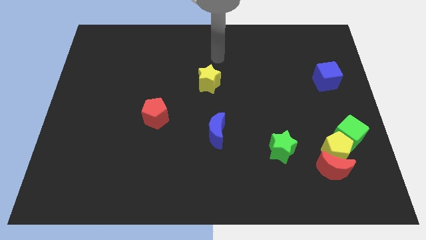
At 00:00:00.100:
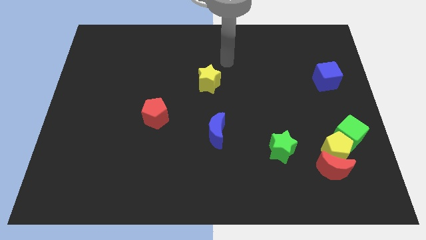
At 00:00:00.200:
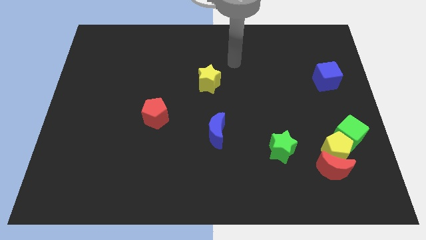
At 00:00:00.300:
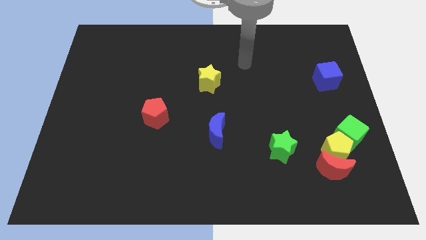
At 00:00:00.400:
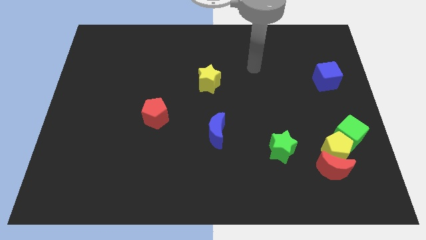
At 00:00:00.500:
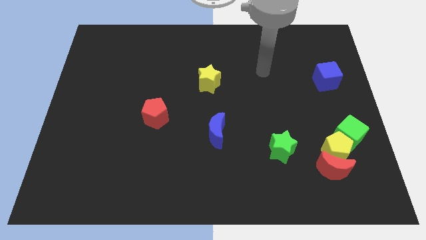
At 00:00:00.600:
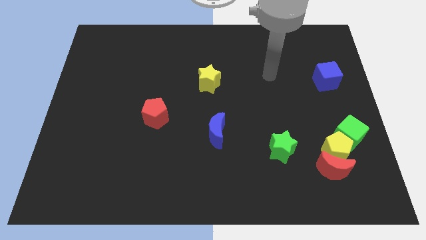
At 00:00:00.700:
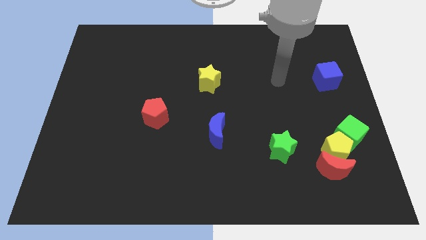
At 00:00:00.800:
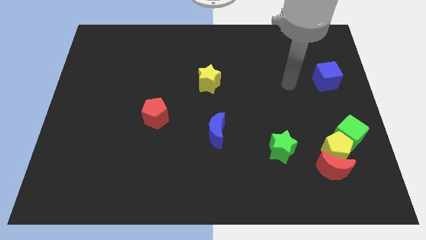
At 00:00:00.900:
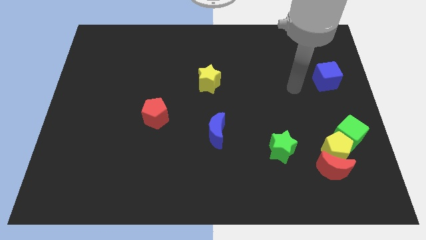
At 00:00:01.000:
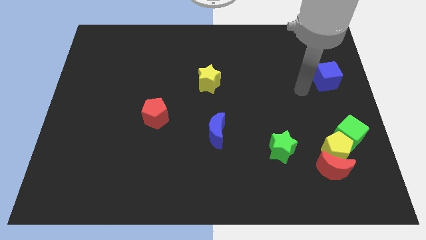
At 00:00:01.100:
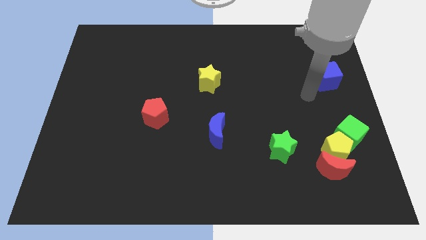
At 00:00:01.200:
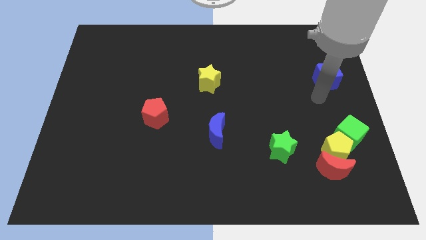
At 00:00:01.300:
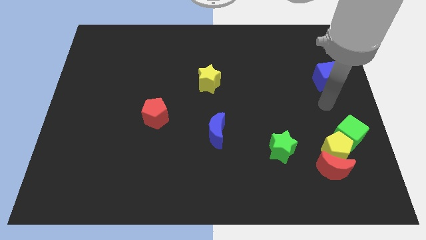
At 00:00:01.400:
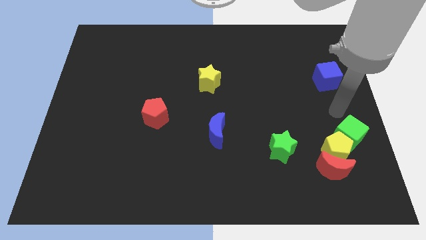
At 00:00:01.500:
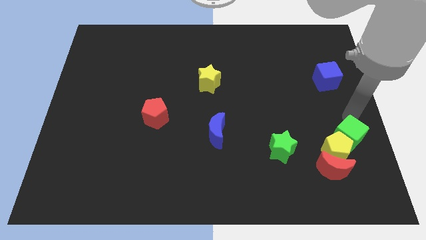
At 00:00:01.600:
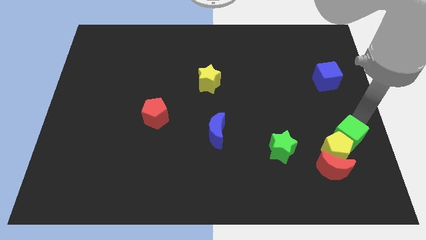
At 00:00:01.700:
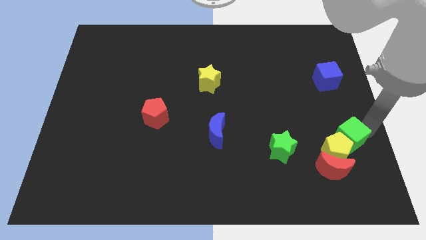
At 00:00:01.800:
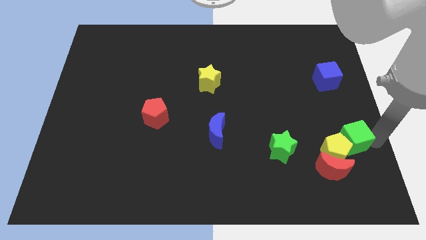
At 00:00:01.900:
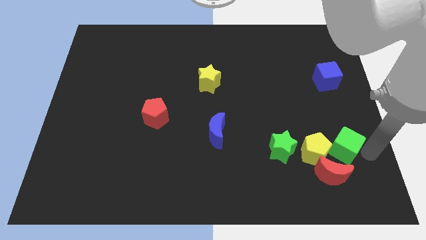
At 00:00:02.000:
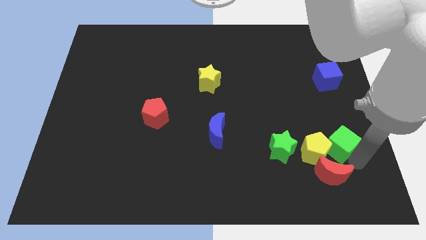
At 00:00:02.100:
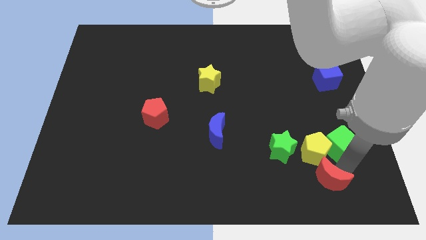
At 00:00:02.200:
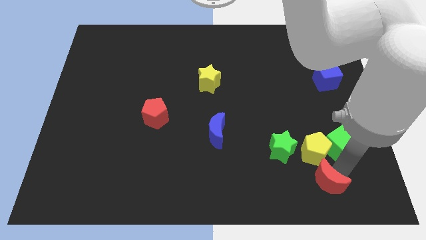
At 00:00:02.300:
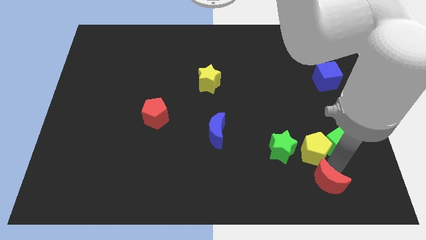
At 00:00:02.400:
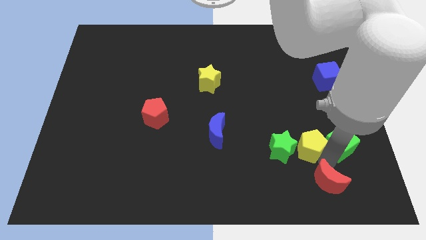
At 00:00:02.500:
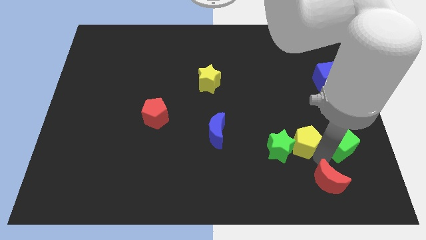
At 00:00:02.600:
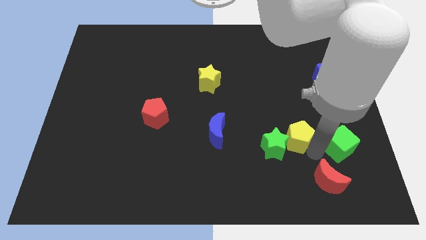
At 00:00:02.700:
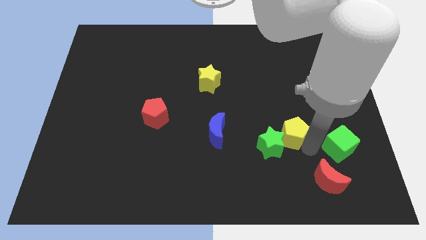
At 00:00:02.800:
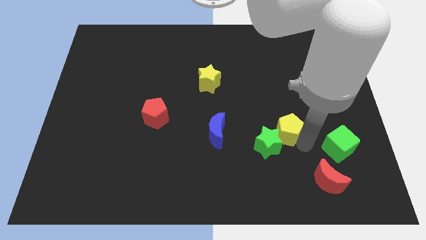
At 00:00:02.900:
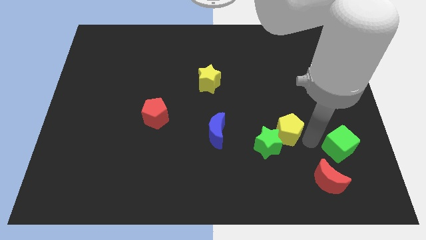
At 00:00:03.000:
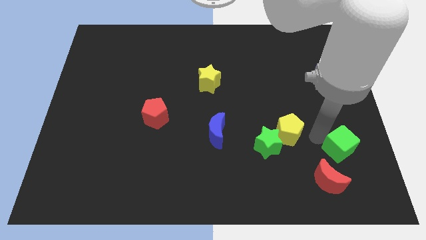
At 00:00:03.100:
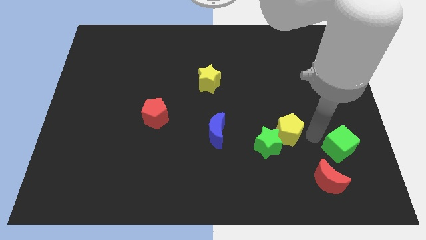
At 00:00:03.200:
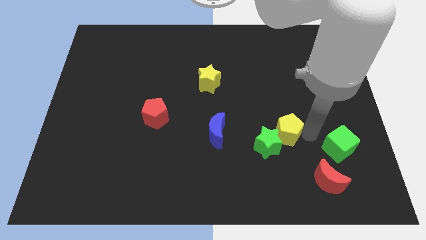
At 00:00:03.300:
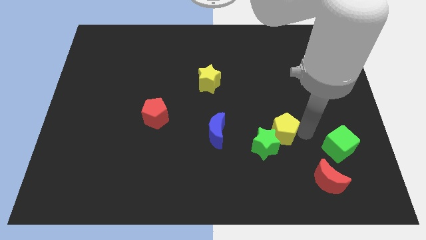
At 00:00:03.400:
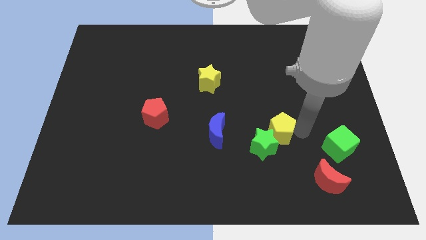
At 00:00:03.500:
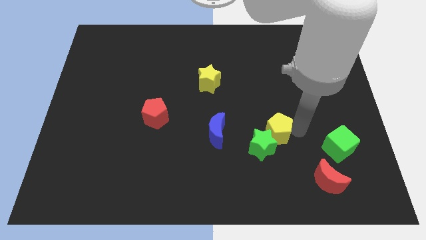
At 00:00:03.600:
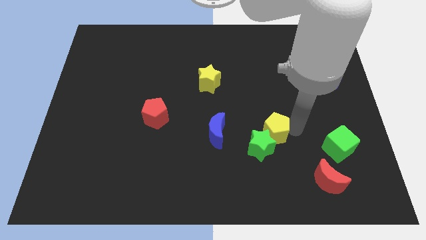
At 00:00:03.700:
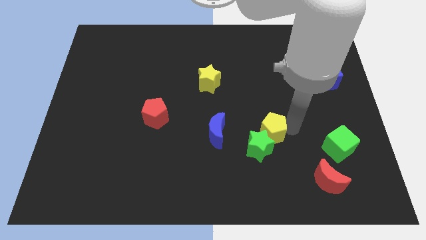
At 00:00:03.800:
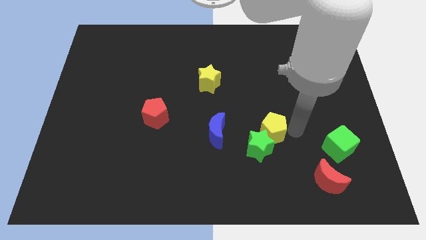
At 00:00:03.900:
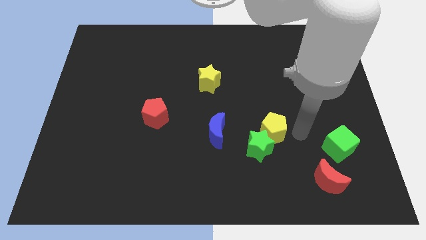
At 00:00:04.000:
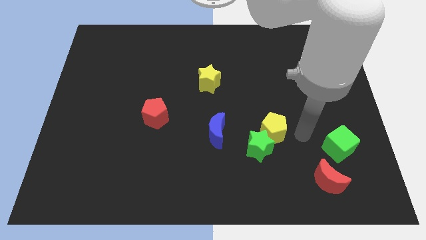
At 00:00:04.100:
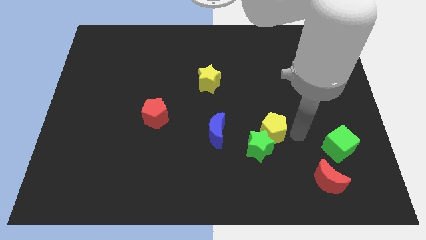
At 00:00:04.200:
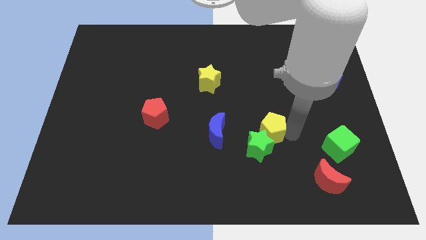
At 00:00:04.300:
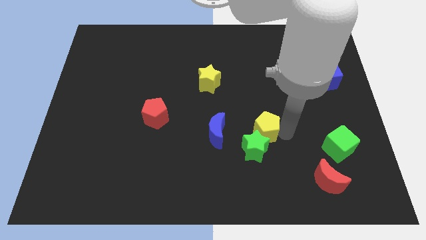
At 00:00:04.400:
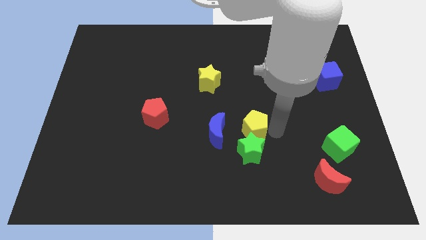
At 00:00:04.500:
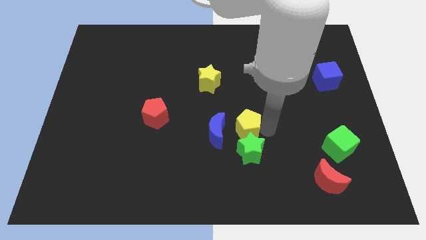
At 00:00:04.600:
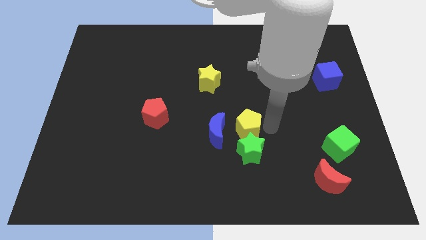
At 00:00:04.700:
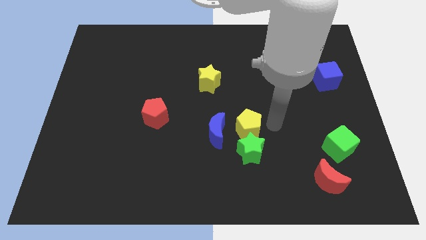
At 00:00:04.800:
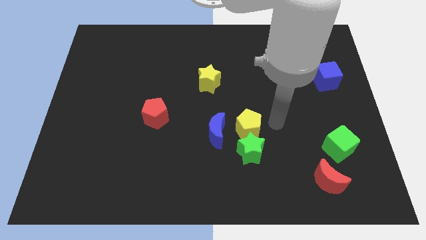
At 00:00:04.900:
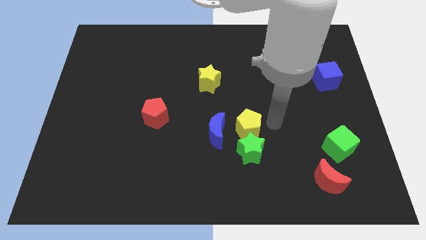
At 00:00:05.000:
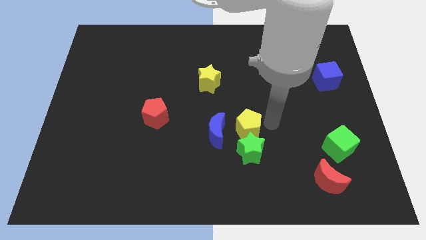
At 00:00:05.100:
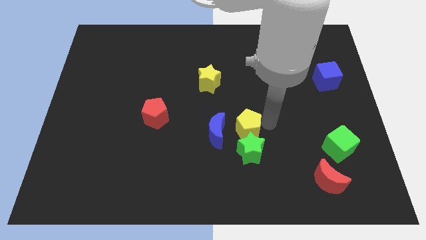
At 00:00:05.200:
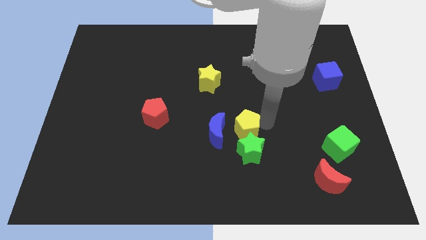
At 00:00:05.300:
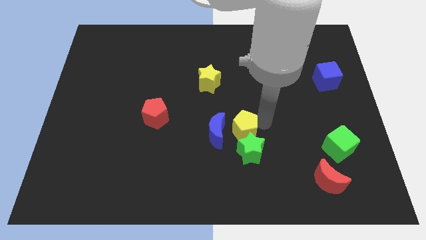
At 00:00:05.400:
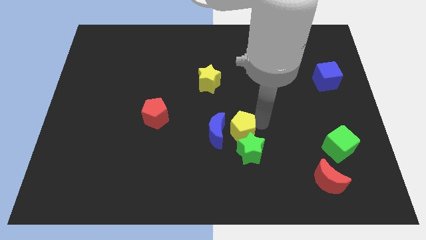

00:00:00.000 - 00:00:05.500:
push the yellow pentagon towards the blue moon

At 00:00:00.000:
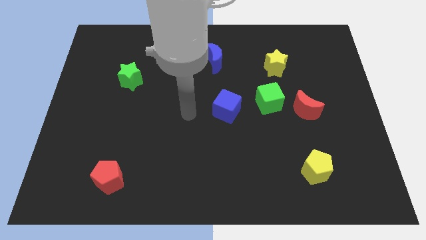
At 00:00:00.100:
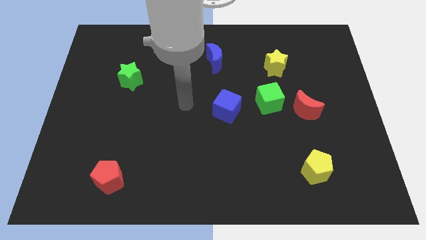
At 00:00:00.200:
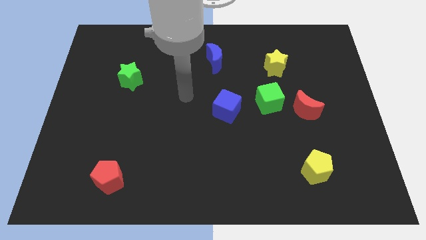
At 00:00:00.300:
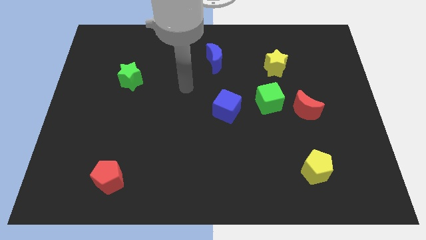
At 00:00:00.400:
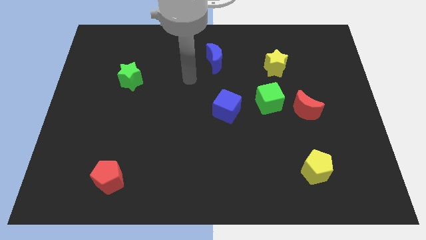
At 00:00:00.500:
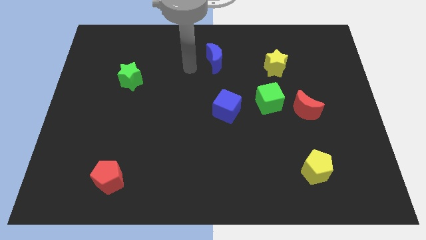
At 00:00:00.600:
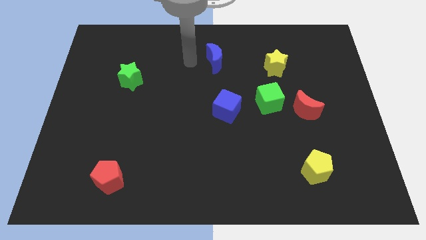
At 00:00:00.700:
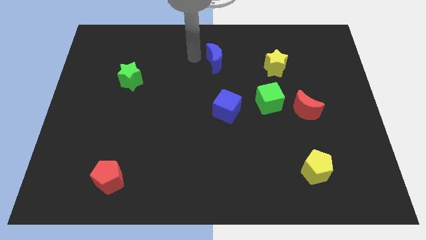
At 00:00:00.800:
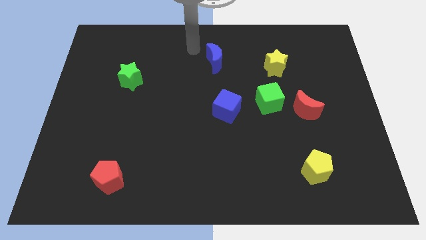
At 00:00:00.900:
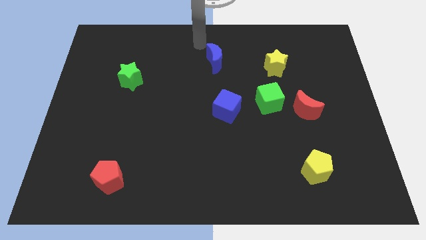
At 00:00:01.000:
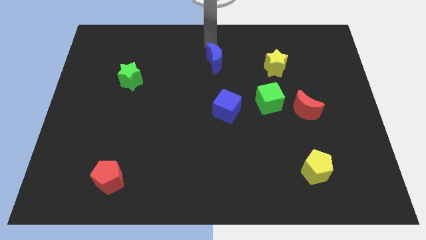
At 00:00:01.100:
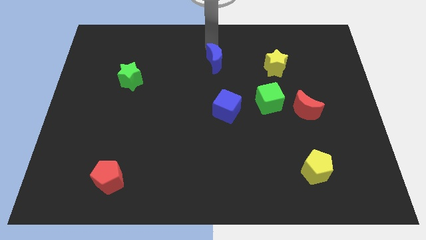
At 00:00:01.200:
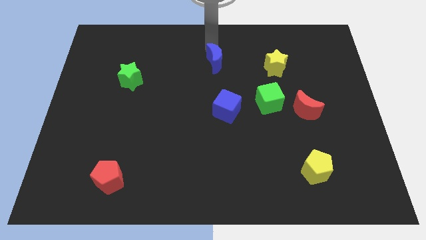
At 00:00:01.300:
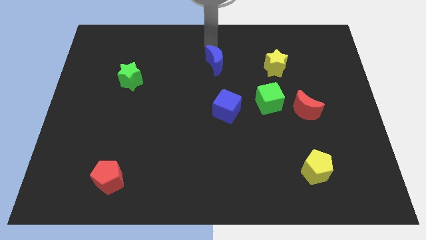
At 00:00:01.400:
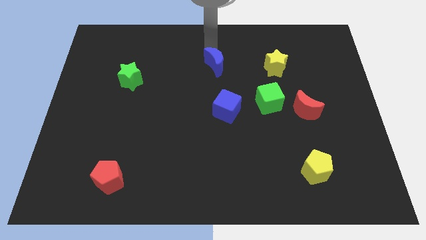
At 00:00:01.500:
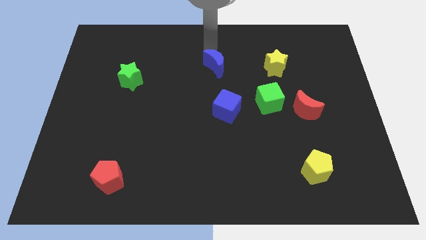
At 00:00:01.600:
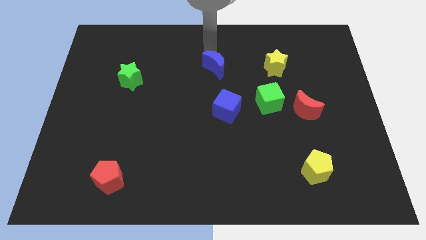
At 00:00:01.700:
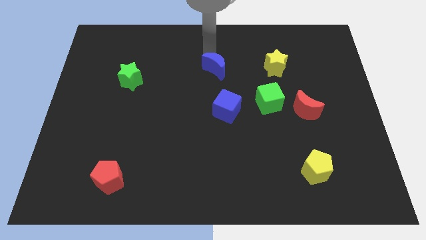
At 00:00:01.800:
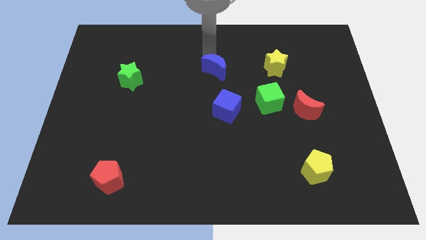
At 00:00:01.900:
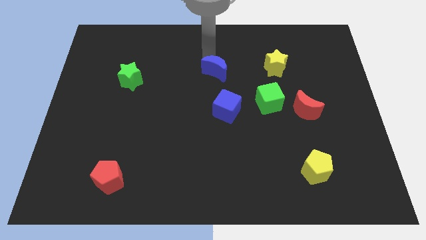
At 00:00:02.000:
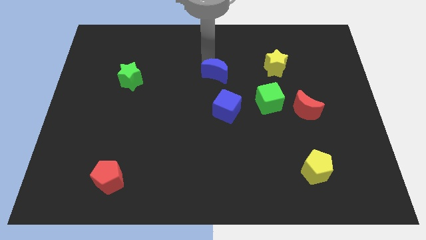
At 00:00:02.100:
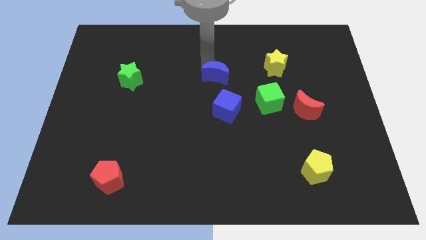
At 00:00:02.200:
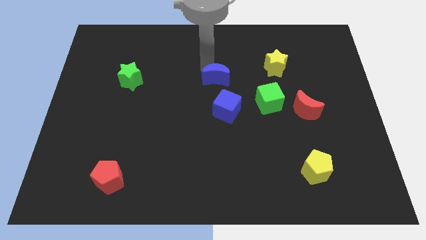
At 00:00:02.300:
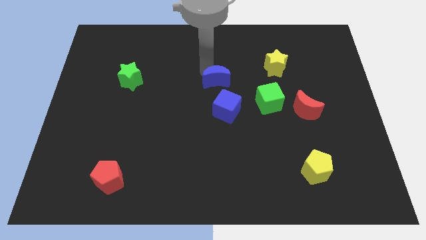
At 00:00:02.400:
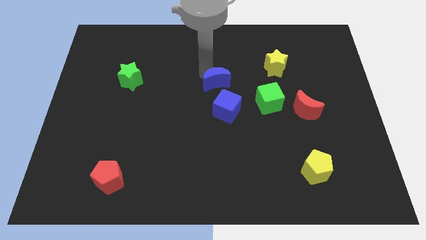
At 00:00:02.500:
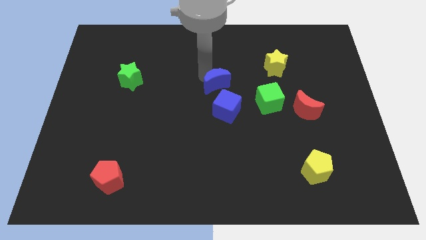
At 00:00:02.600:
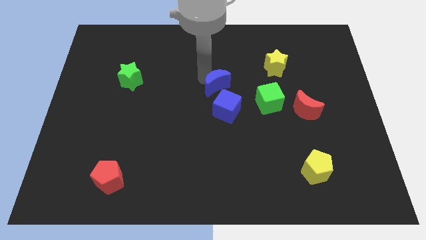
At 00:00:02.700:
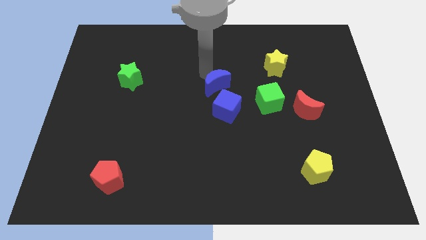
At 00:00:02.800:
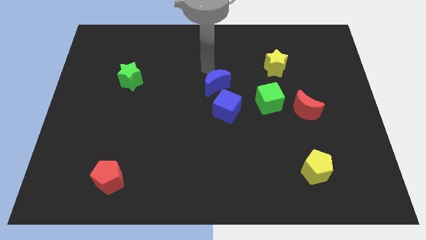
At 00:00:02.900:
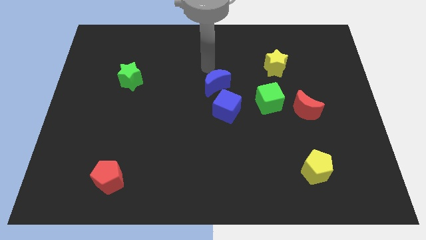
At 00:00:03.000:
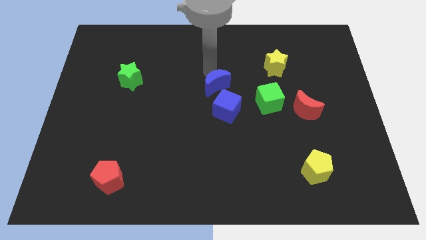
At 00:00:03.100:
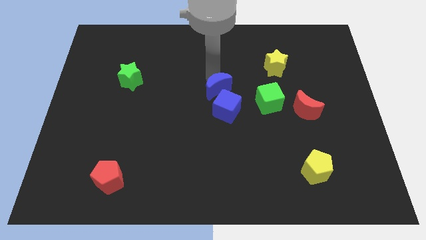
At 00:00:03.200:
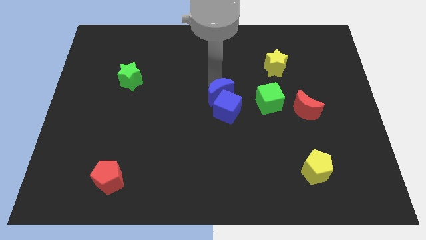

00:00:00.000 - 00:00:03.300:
put the blue moon close to the blue cube
